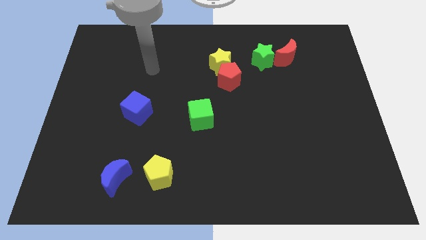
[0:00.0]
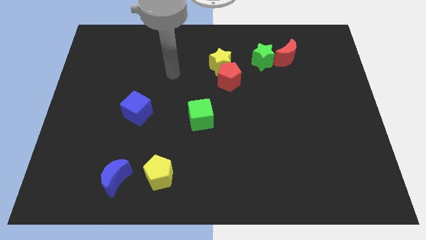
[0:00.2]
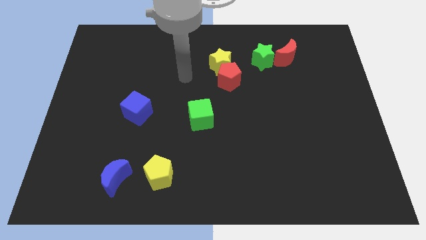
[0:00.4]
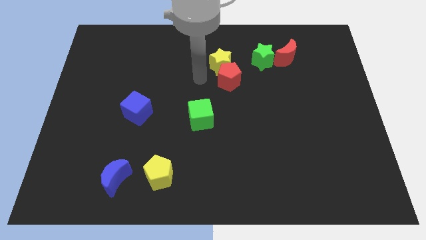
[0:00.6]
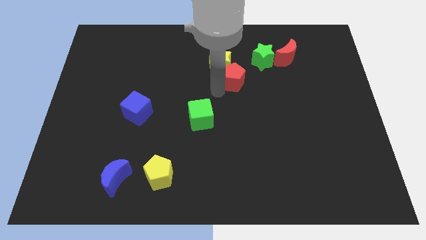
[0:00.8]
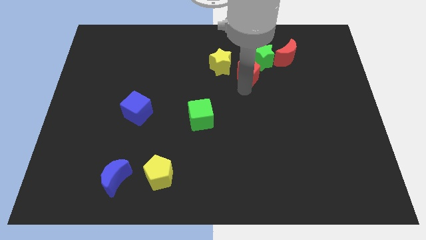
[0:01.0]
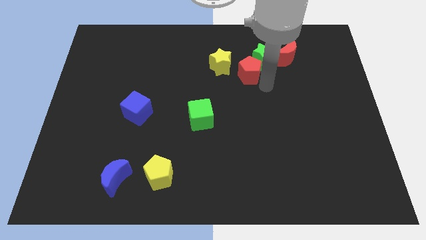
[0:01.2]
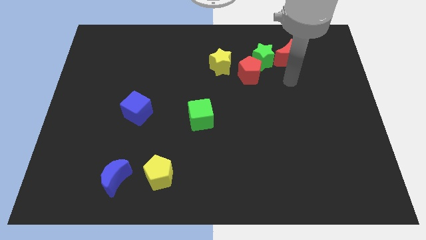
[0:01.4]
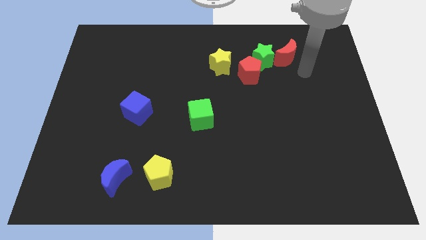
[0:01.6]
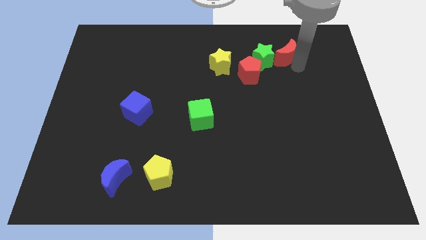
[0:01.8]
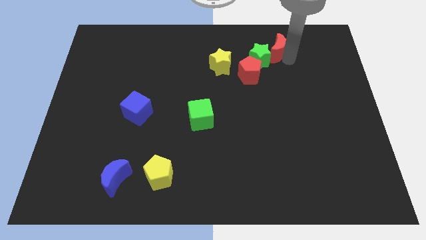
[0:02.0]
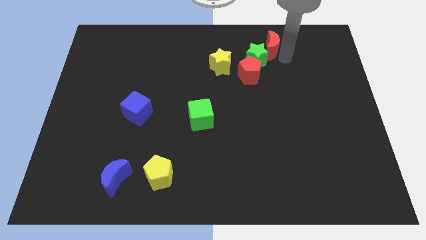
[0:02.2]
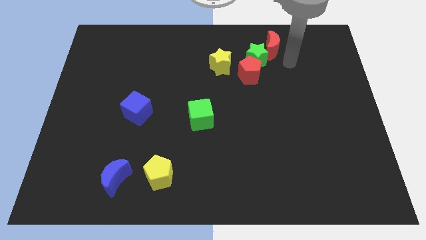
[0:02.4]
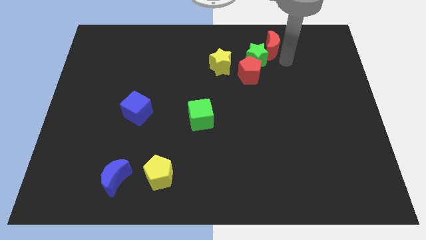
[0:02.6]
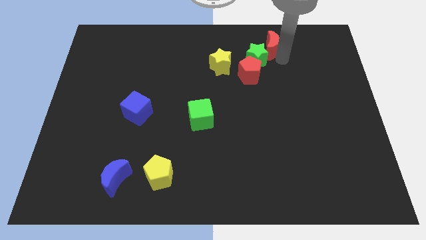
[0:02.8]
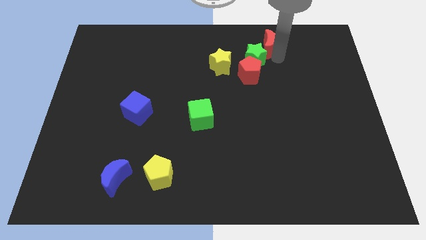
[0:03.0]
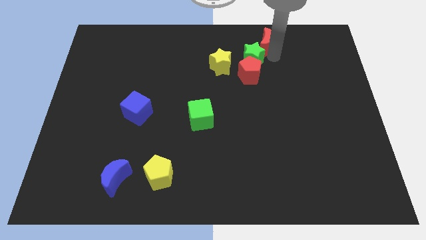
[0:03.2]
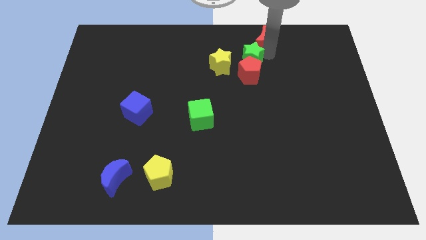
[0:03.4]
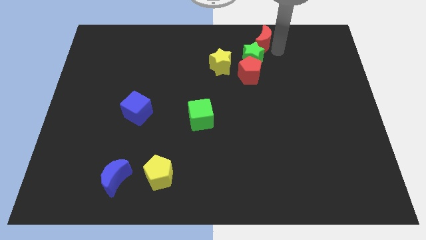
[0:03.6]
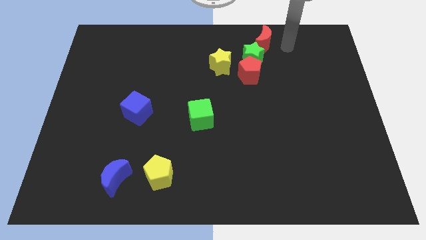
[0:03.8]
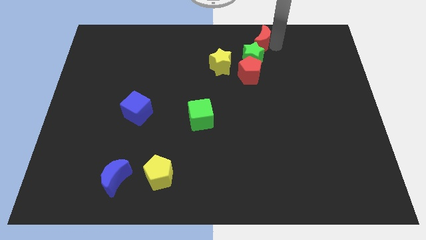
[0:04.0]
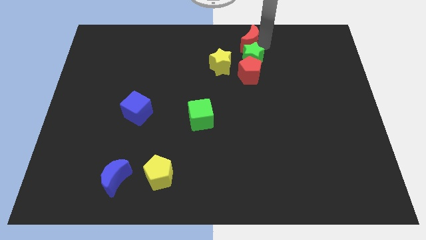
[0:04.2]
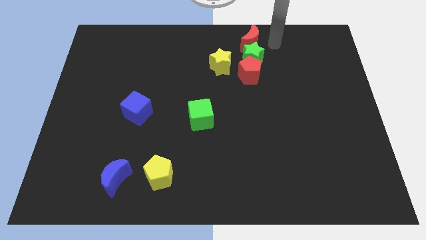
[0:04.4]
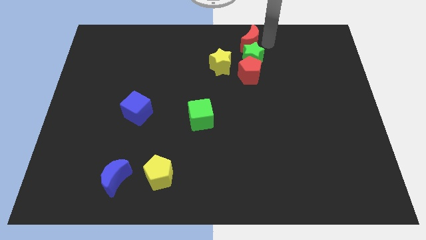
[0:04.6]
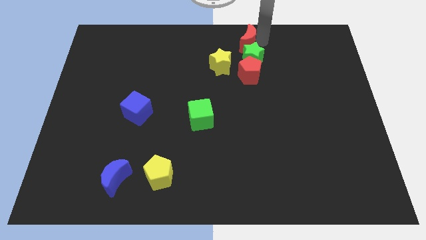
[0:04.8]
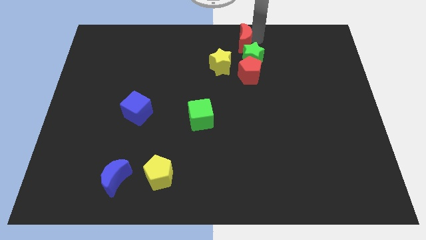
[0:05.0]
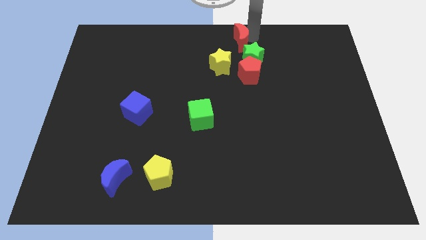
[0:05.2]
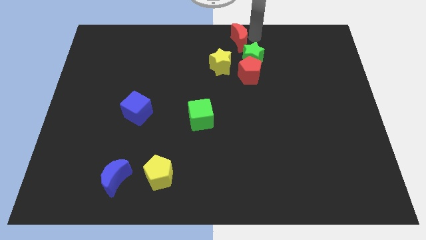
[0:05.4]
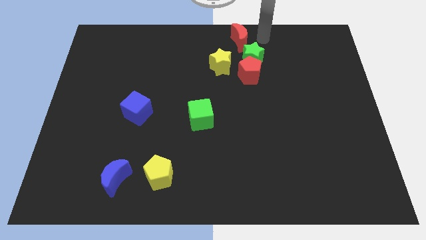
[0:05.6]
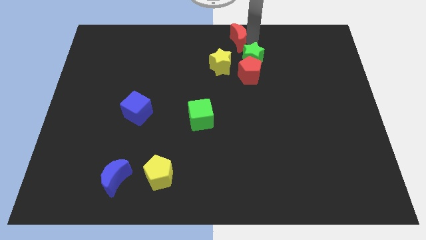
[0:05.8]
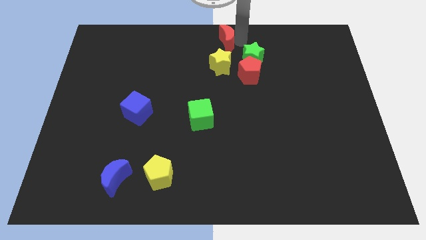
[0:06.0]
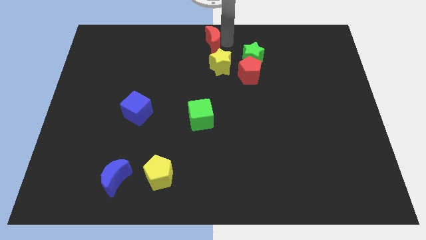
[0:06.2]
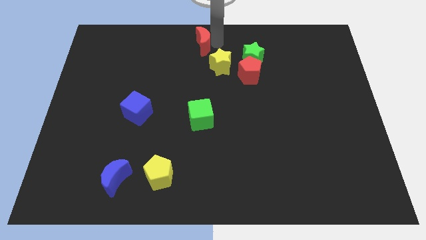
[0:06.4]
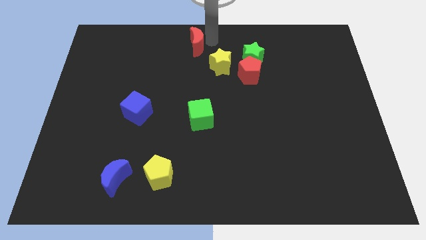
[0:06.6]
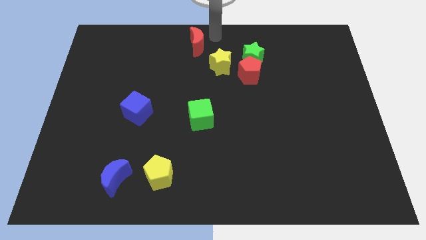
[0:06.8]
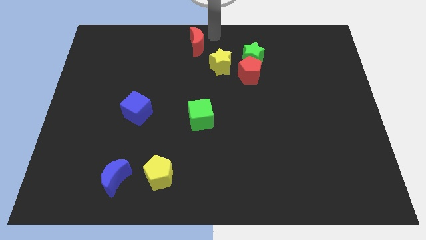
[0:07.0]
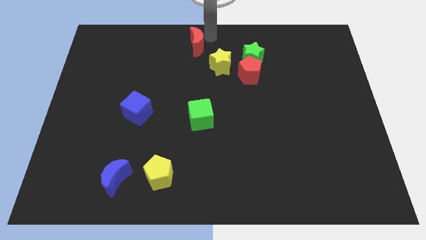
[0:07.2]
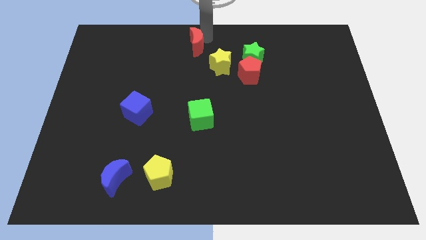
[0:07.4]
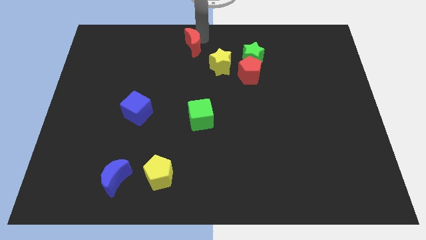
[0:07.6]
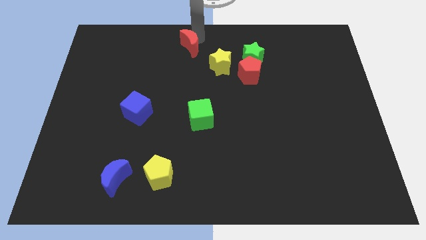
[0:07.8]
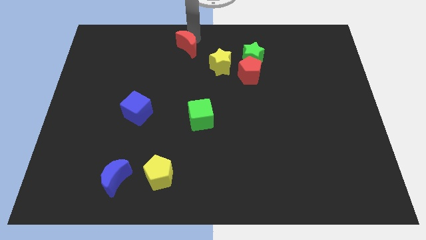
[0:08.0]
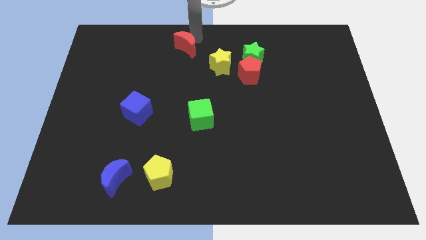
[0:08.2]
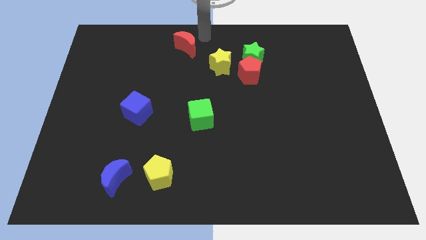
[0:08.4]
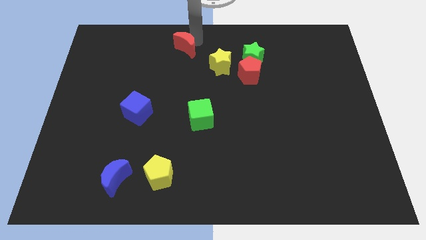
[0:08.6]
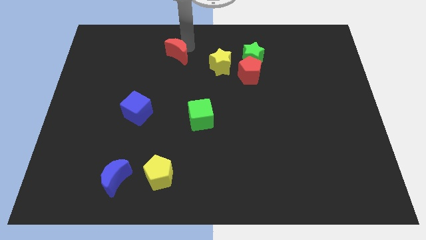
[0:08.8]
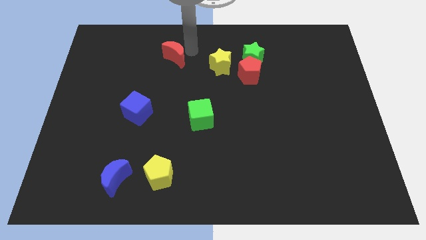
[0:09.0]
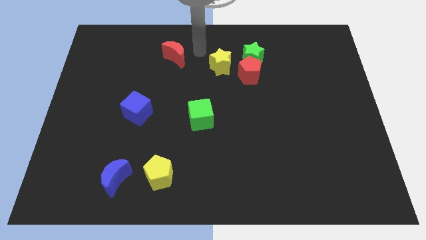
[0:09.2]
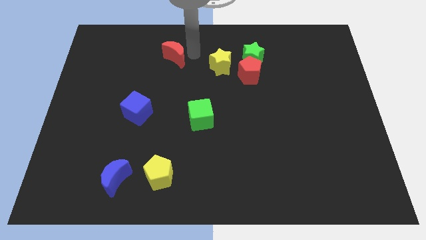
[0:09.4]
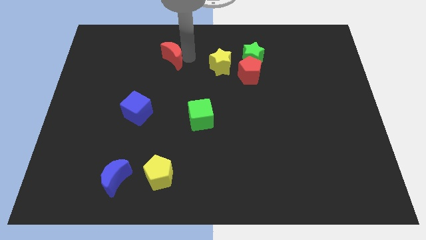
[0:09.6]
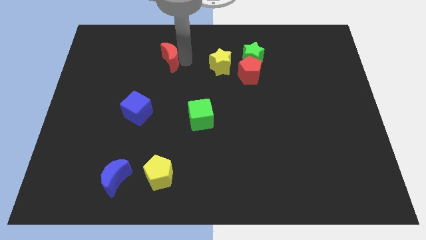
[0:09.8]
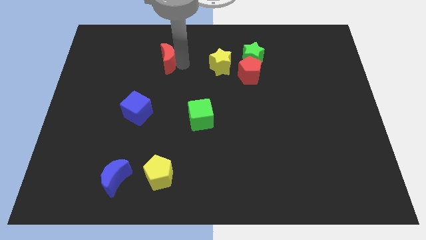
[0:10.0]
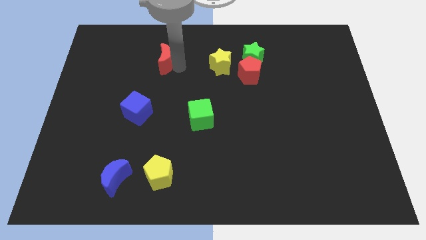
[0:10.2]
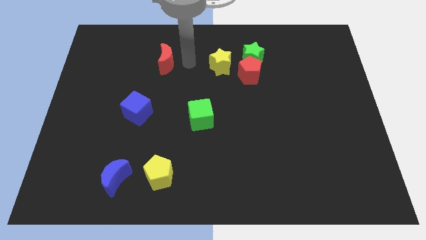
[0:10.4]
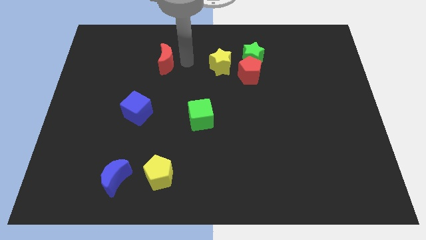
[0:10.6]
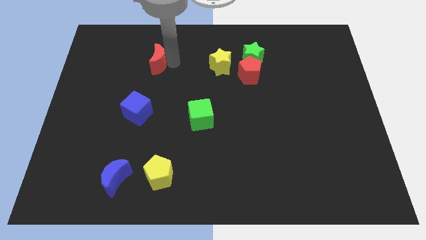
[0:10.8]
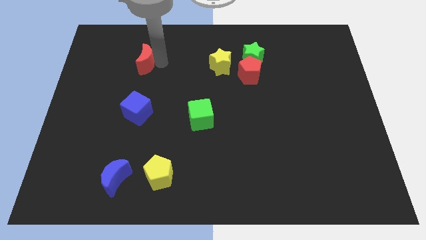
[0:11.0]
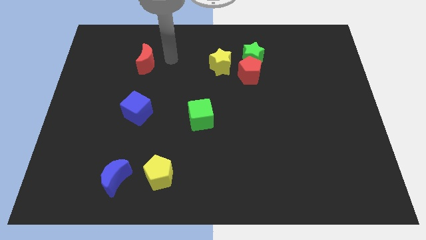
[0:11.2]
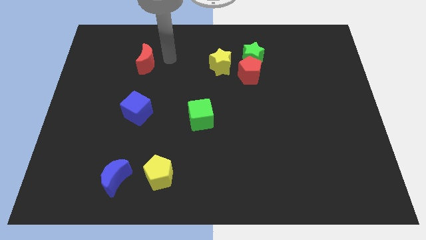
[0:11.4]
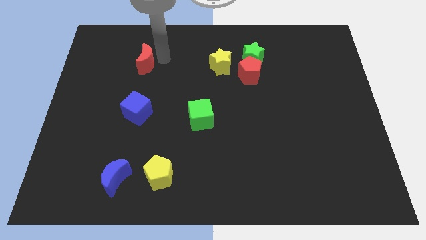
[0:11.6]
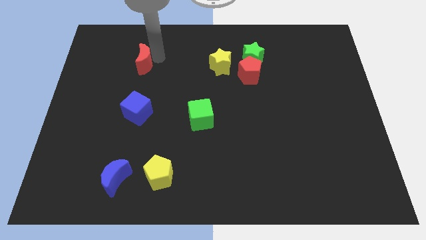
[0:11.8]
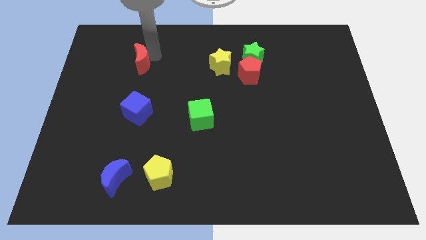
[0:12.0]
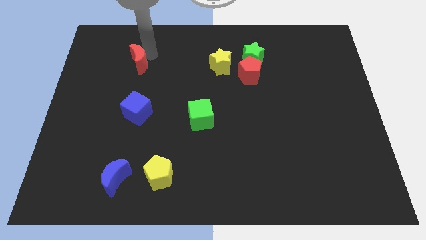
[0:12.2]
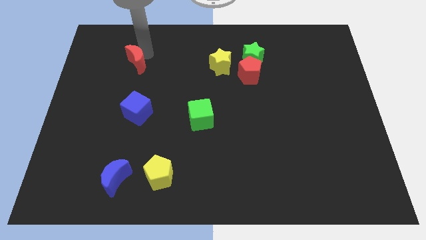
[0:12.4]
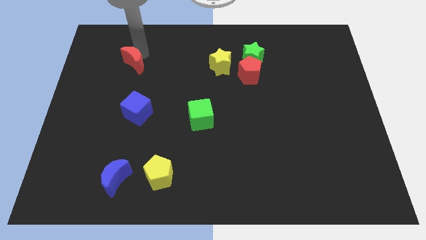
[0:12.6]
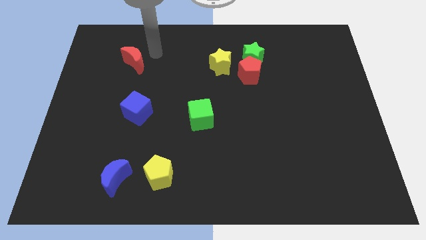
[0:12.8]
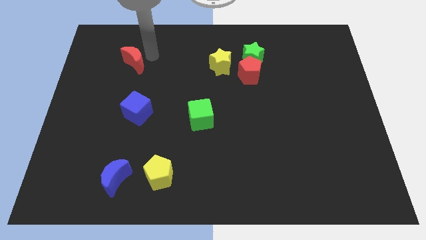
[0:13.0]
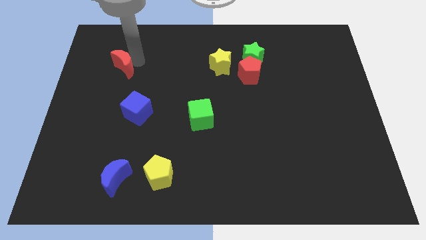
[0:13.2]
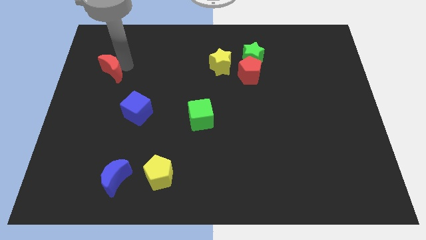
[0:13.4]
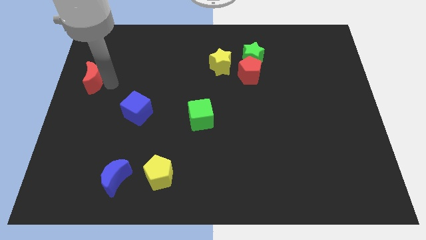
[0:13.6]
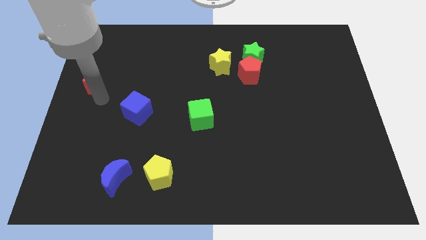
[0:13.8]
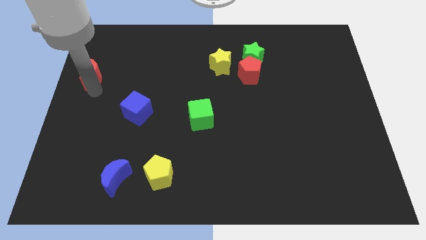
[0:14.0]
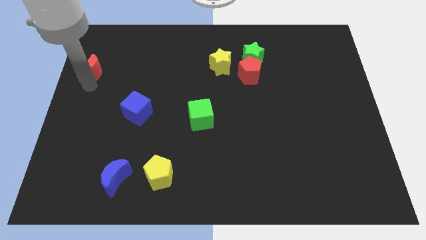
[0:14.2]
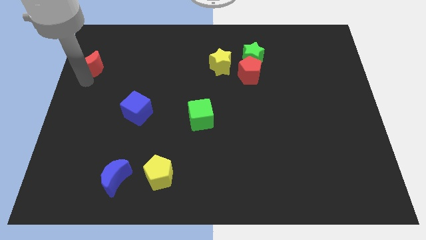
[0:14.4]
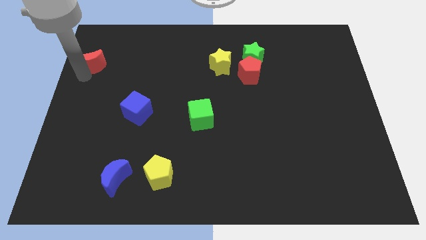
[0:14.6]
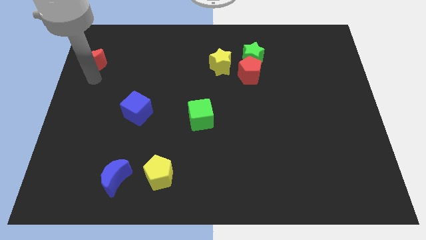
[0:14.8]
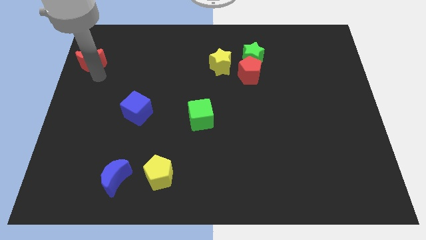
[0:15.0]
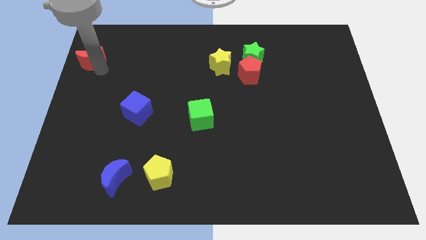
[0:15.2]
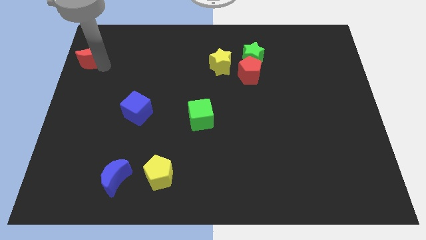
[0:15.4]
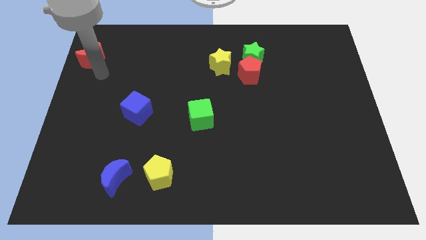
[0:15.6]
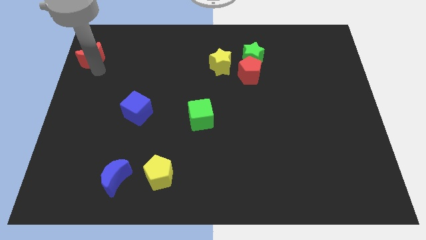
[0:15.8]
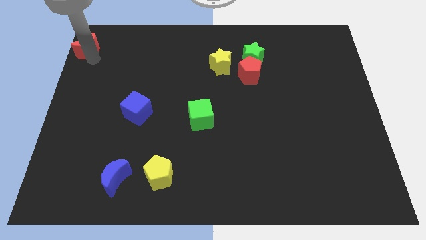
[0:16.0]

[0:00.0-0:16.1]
push the red moon to the top left of the board
